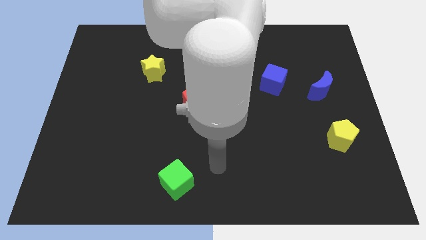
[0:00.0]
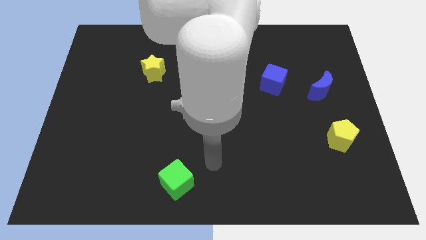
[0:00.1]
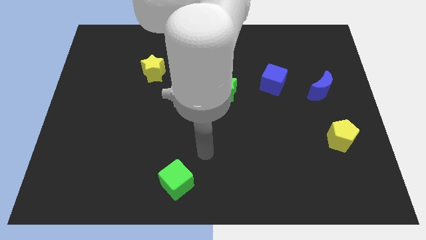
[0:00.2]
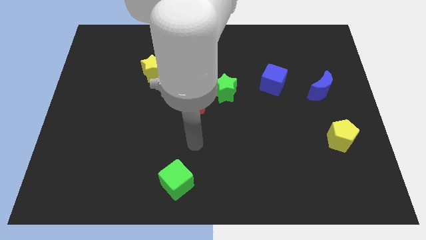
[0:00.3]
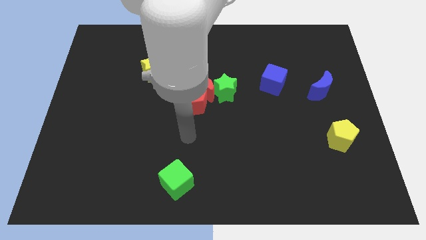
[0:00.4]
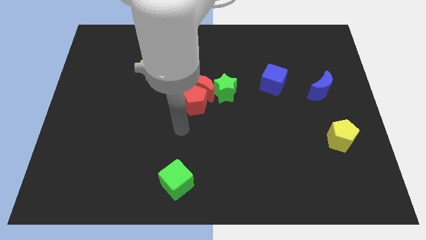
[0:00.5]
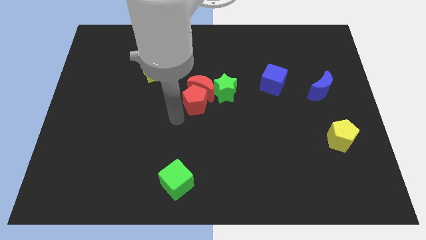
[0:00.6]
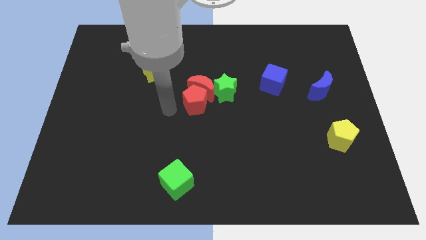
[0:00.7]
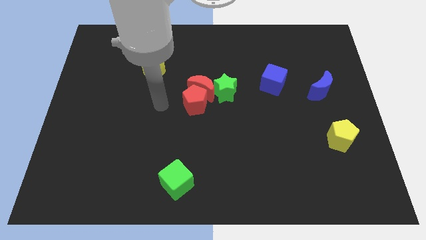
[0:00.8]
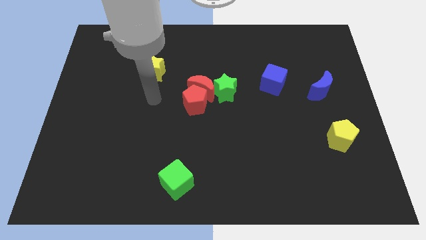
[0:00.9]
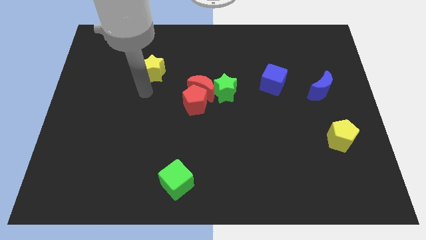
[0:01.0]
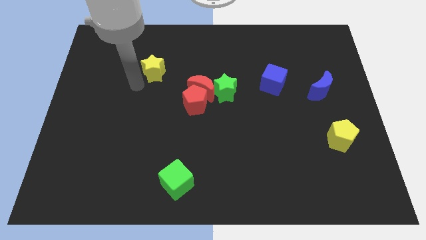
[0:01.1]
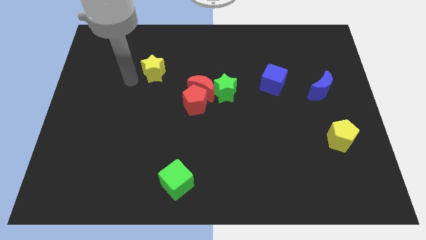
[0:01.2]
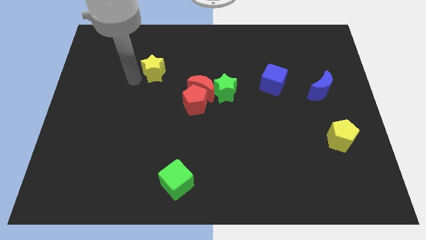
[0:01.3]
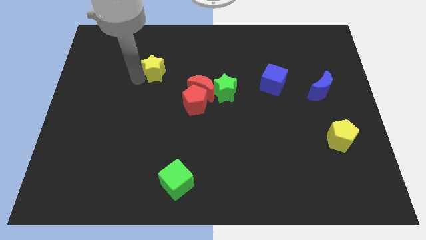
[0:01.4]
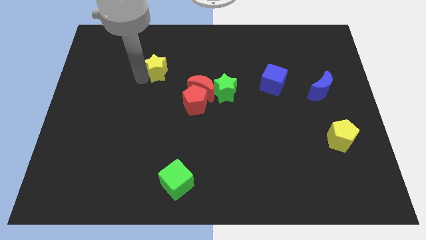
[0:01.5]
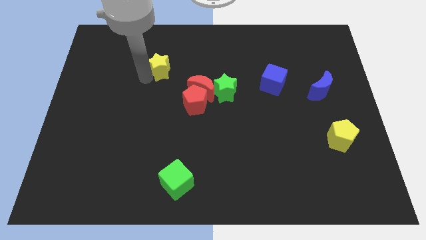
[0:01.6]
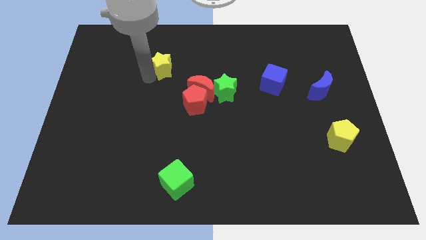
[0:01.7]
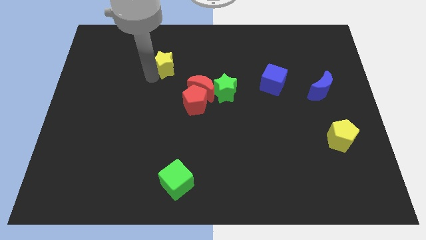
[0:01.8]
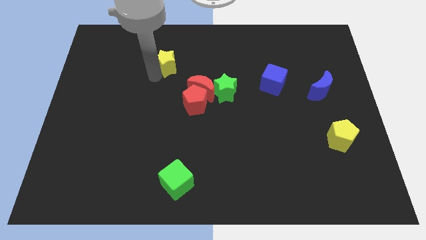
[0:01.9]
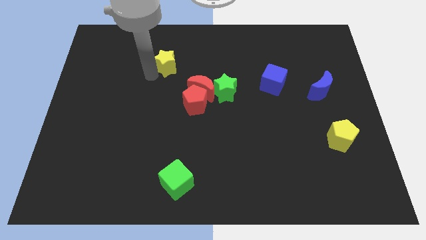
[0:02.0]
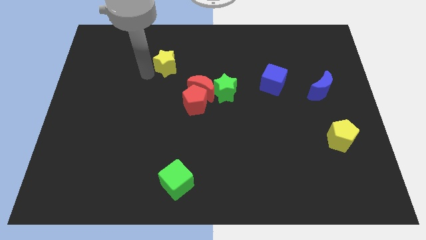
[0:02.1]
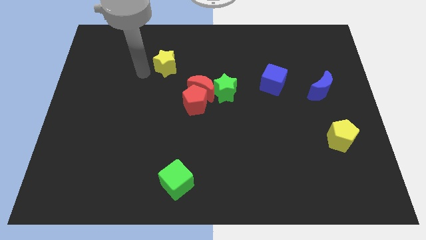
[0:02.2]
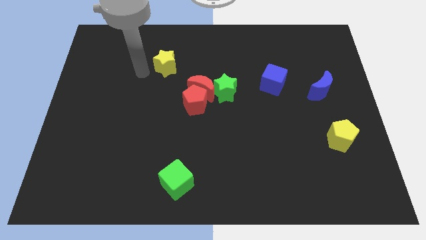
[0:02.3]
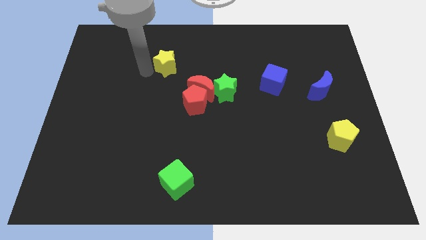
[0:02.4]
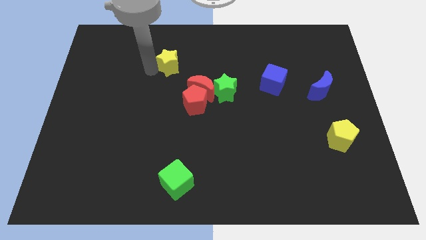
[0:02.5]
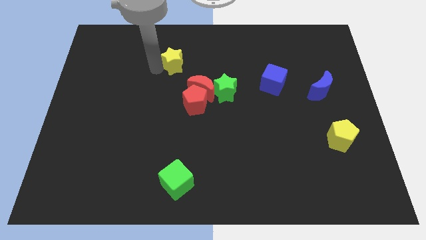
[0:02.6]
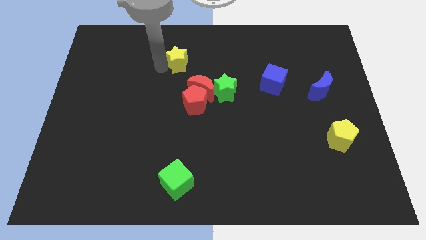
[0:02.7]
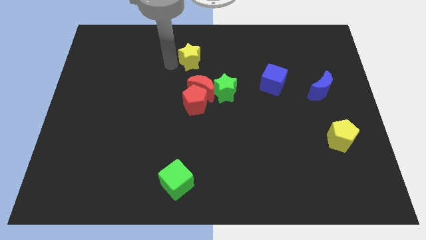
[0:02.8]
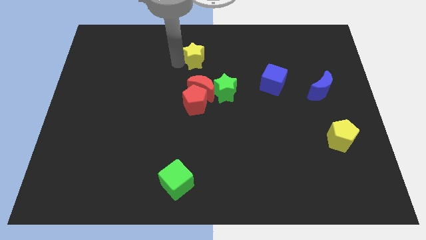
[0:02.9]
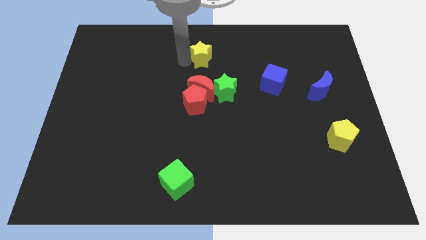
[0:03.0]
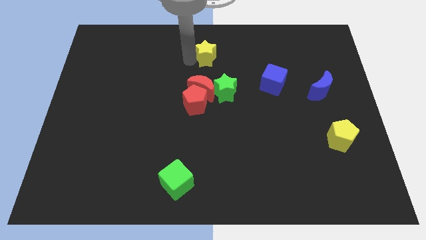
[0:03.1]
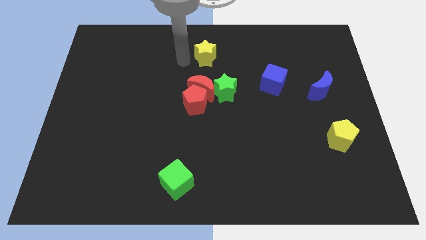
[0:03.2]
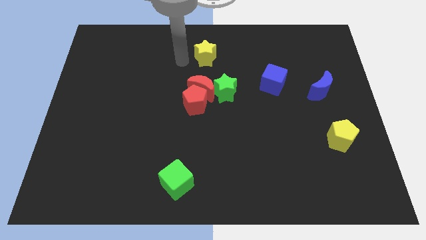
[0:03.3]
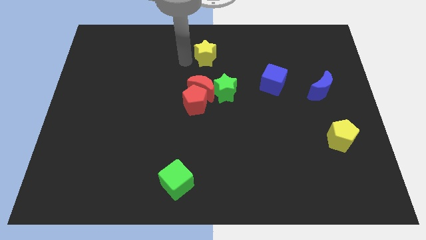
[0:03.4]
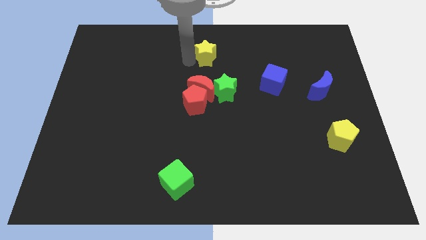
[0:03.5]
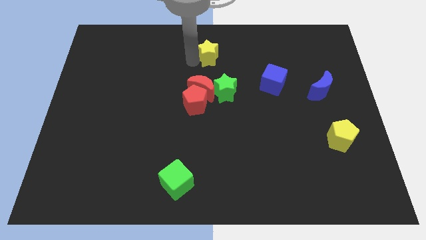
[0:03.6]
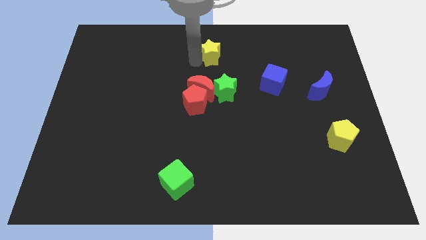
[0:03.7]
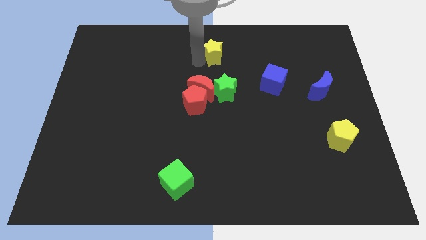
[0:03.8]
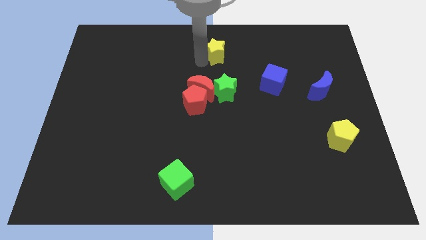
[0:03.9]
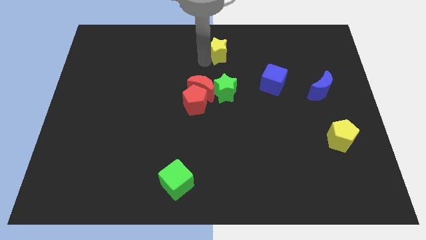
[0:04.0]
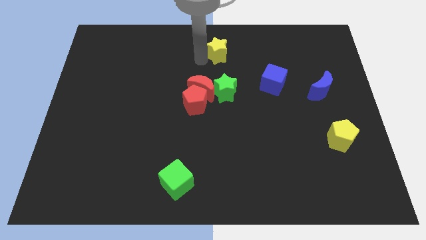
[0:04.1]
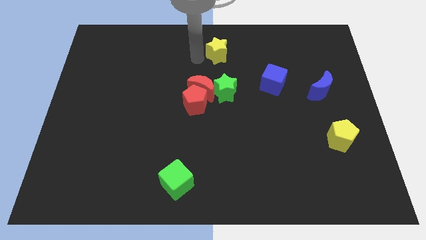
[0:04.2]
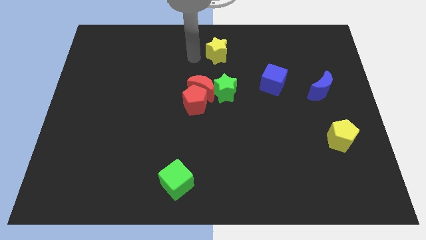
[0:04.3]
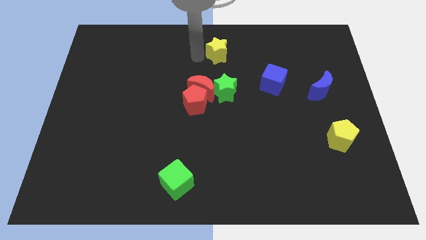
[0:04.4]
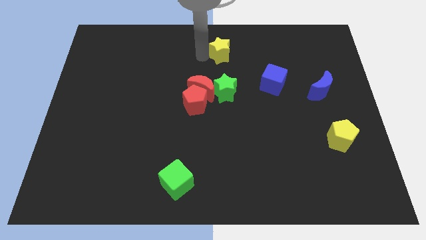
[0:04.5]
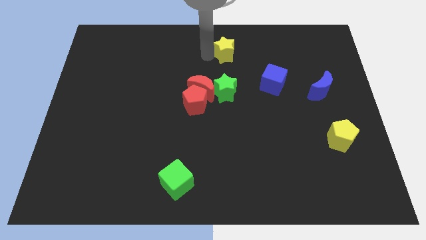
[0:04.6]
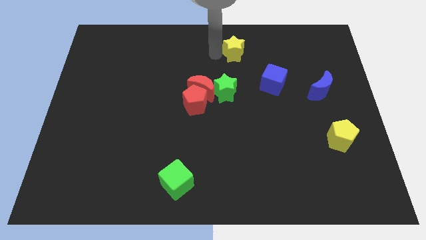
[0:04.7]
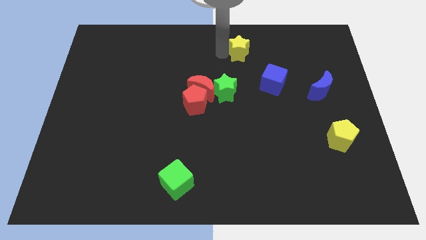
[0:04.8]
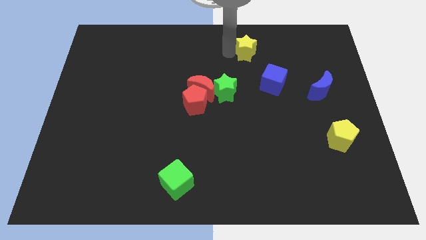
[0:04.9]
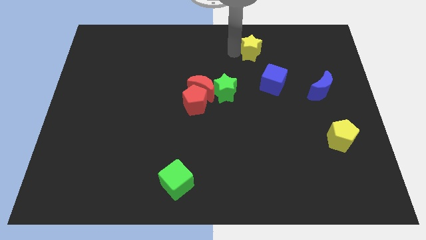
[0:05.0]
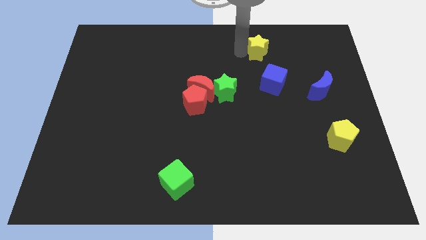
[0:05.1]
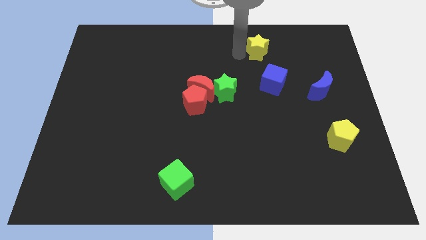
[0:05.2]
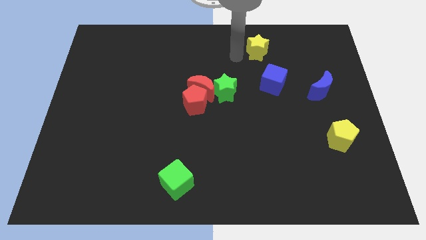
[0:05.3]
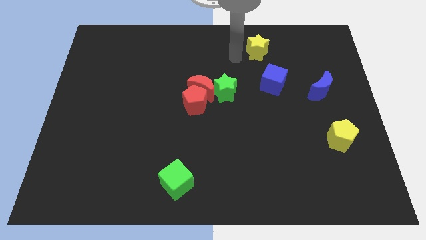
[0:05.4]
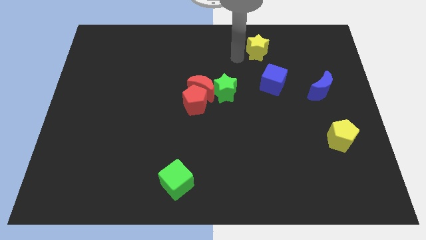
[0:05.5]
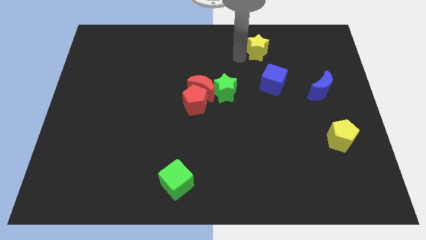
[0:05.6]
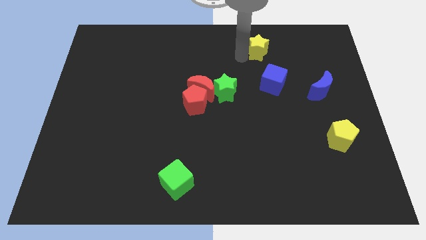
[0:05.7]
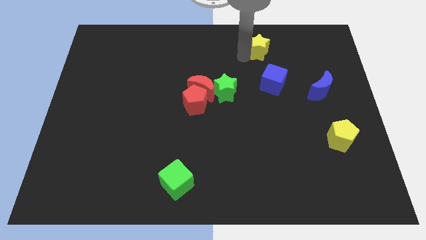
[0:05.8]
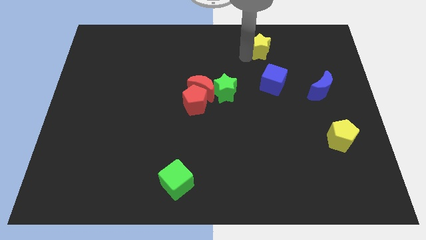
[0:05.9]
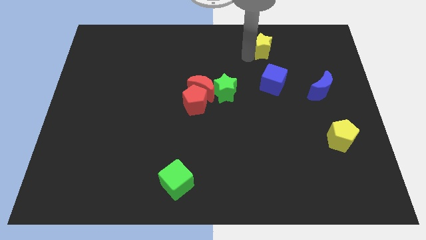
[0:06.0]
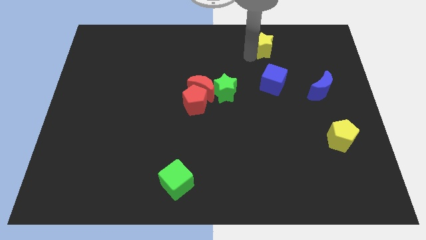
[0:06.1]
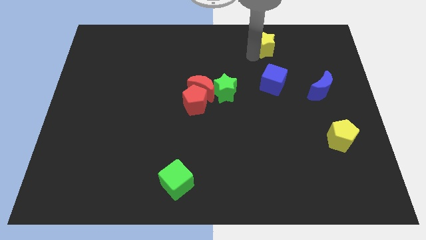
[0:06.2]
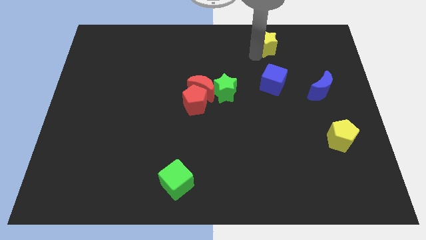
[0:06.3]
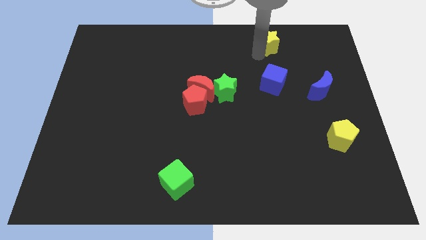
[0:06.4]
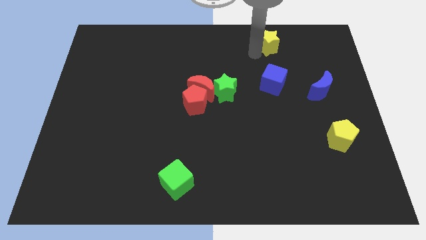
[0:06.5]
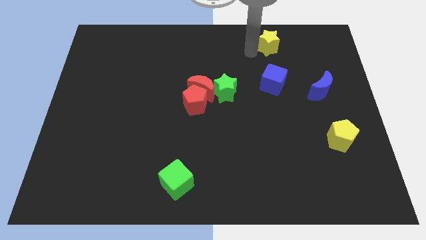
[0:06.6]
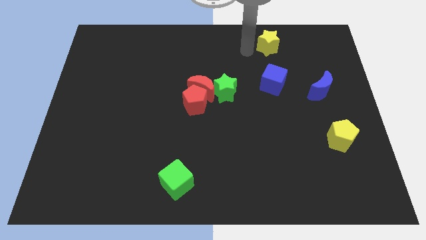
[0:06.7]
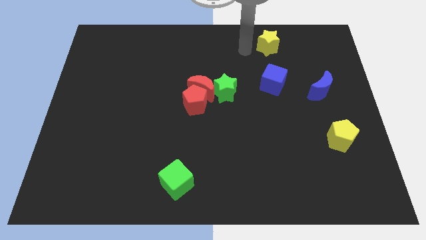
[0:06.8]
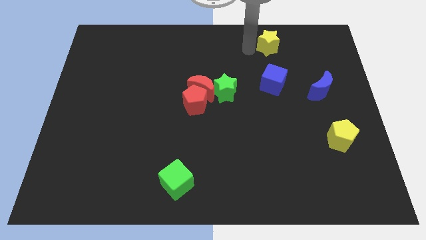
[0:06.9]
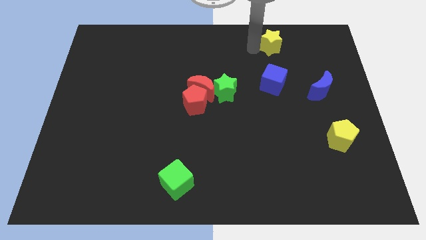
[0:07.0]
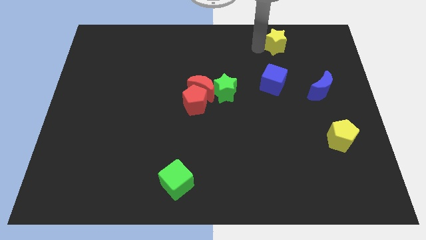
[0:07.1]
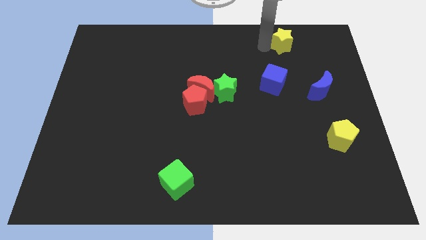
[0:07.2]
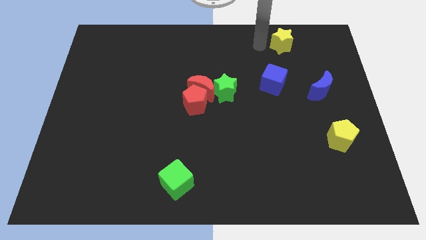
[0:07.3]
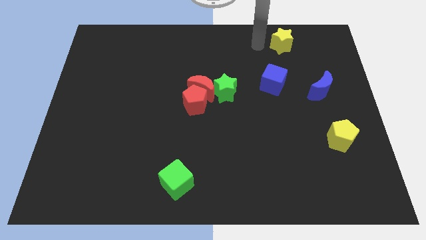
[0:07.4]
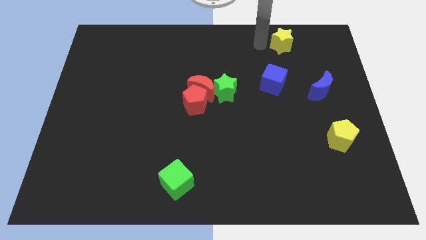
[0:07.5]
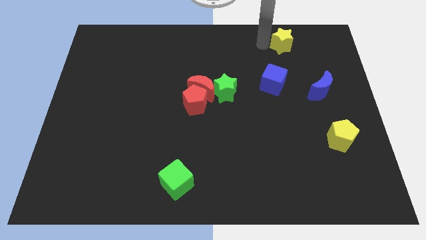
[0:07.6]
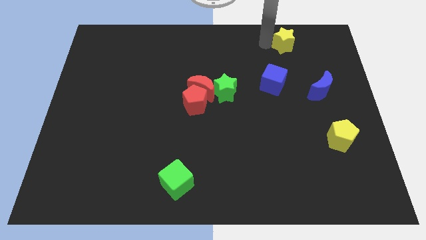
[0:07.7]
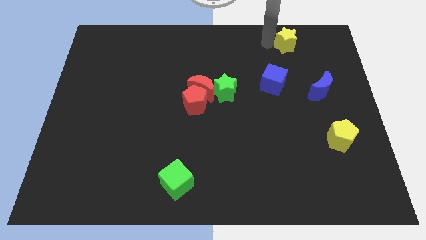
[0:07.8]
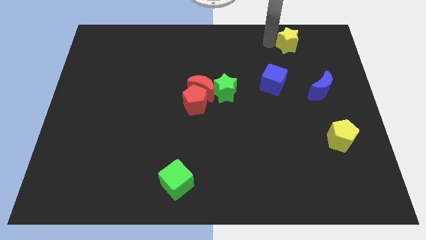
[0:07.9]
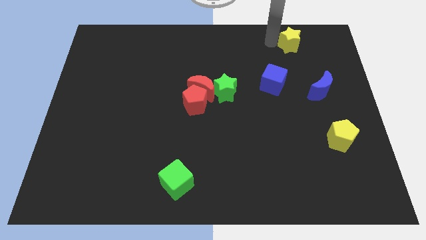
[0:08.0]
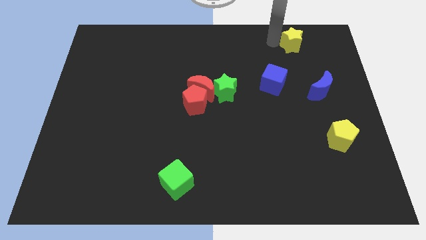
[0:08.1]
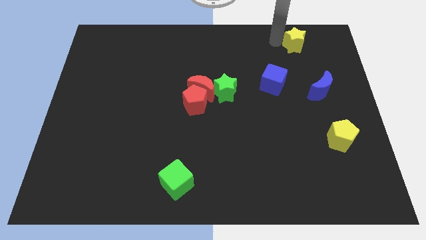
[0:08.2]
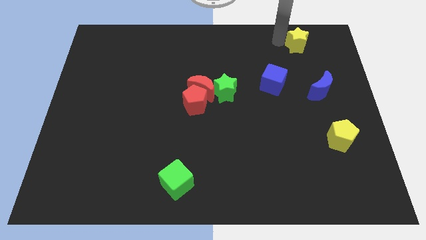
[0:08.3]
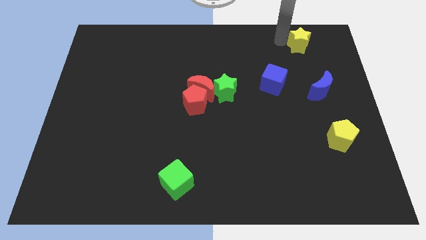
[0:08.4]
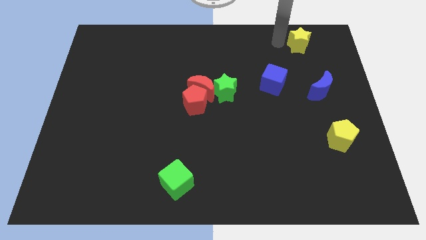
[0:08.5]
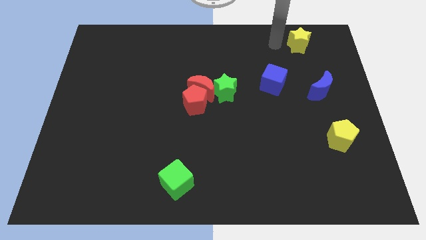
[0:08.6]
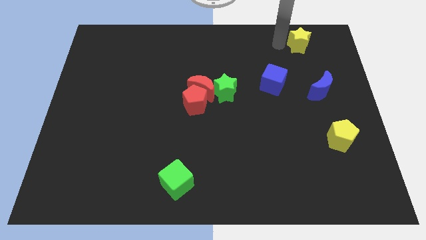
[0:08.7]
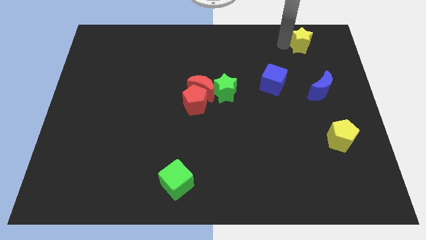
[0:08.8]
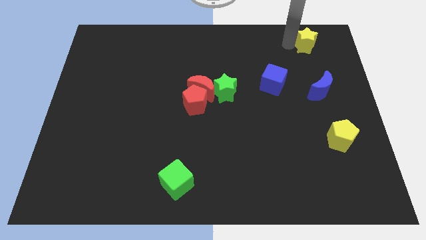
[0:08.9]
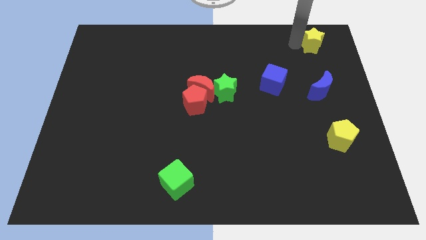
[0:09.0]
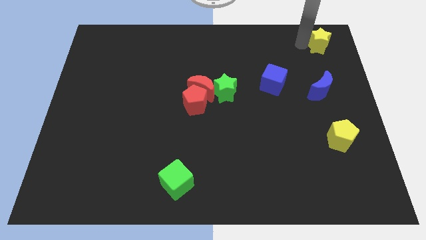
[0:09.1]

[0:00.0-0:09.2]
move the yellow star to the upper right corner
